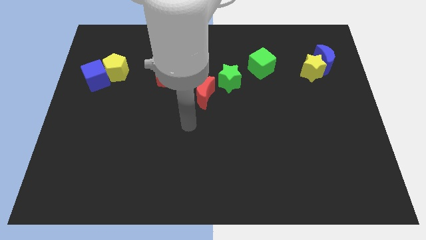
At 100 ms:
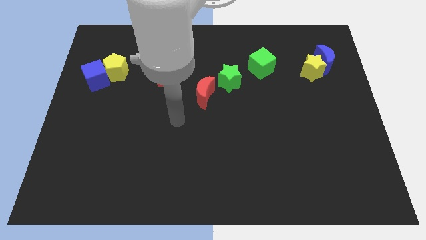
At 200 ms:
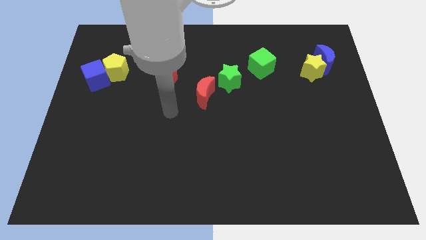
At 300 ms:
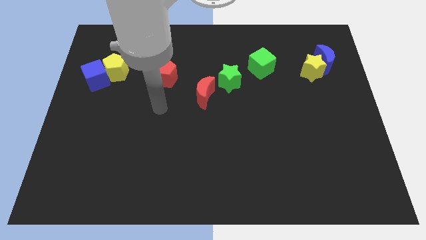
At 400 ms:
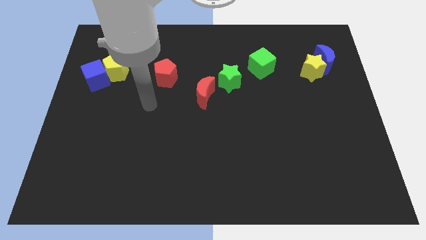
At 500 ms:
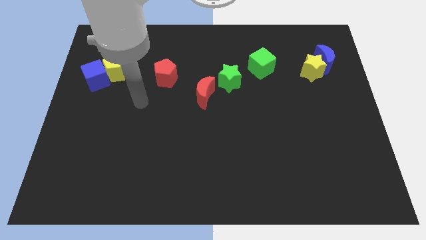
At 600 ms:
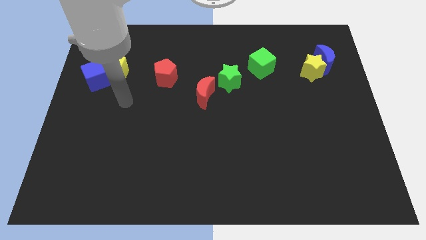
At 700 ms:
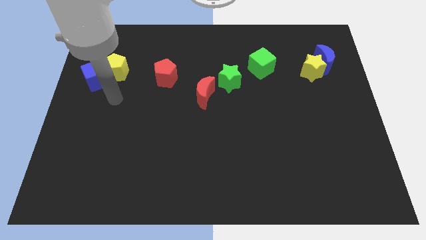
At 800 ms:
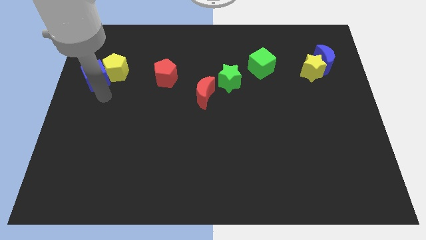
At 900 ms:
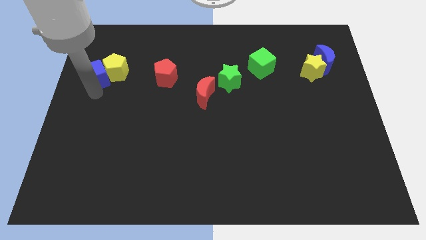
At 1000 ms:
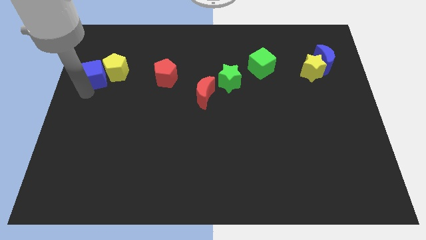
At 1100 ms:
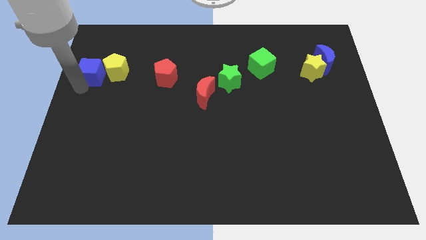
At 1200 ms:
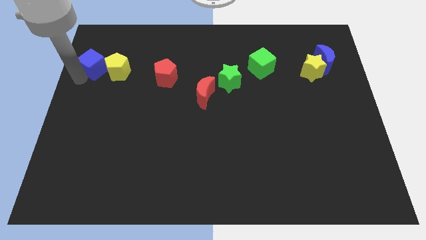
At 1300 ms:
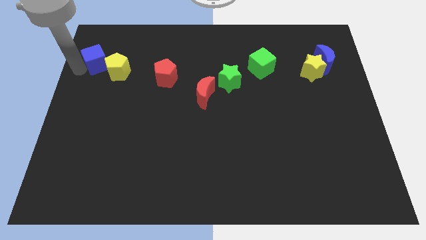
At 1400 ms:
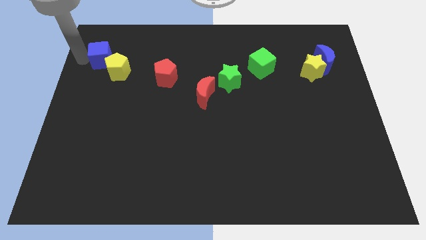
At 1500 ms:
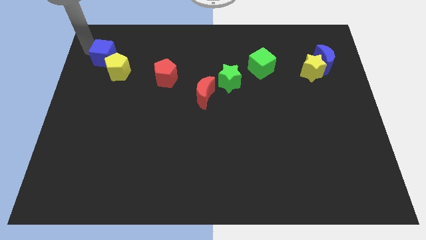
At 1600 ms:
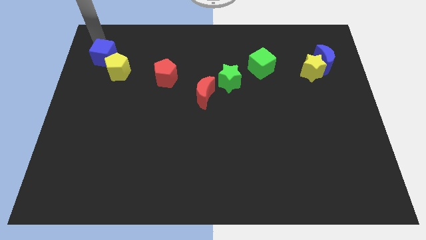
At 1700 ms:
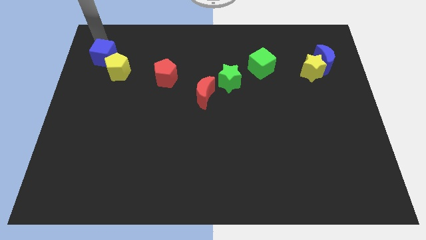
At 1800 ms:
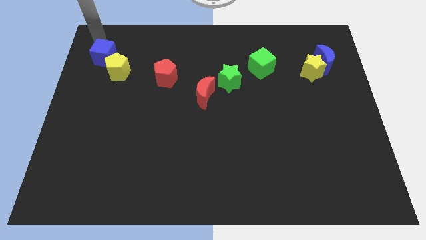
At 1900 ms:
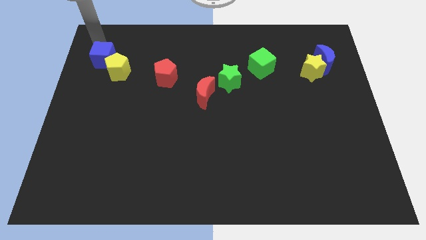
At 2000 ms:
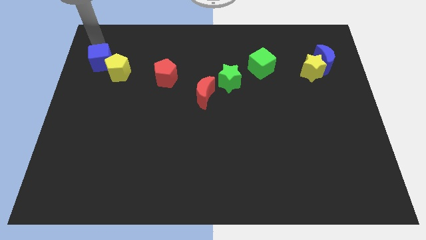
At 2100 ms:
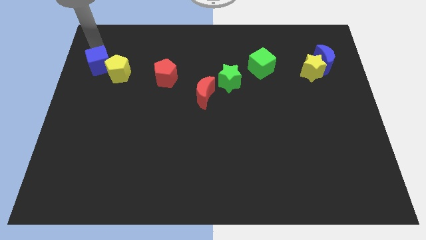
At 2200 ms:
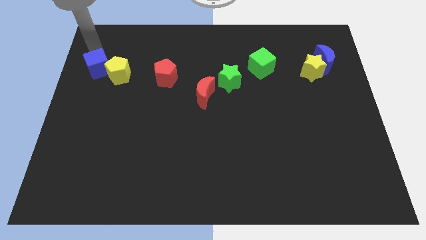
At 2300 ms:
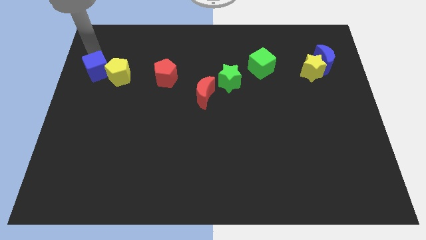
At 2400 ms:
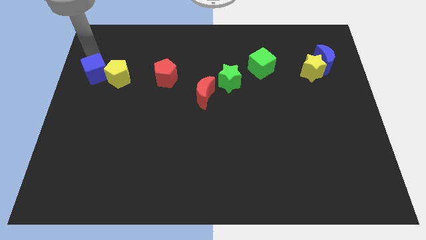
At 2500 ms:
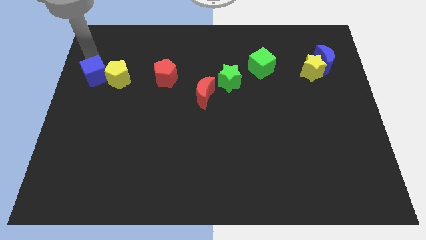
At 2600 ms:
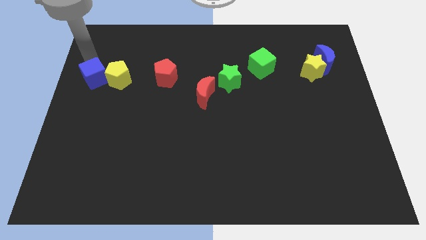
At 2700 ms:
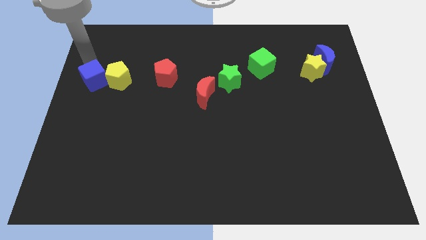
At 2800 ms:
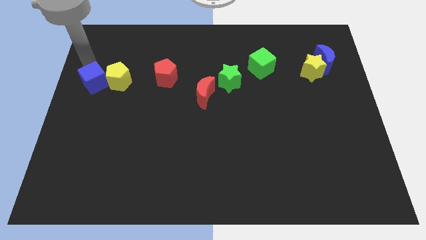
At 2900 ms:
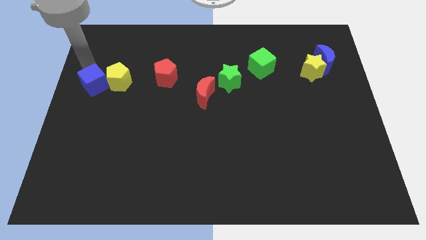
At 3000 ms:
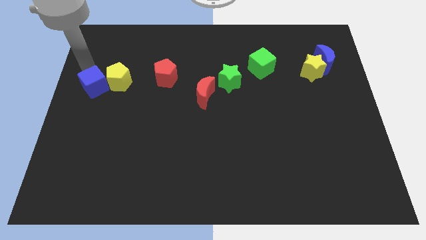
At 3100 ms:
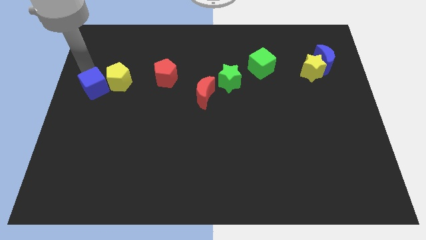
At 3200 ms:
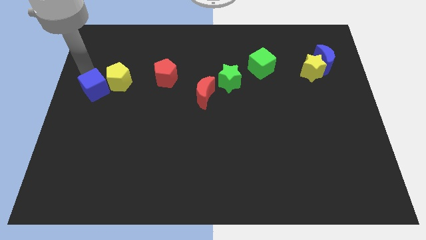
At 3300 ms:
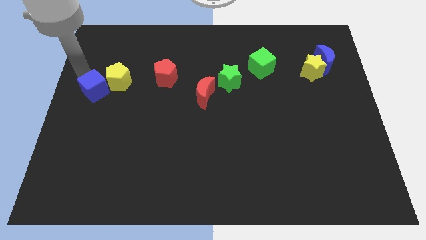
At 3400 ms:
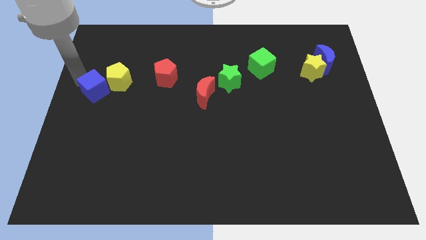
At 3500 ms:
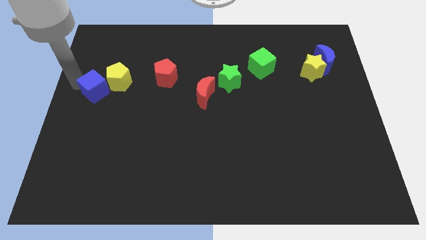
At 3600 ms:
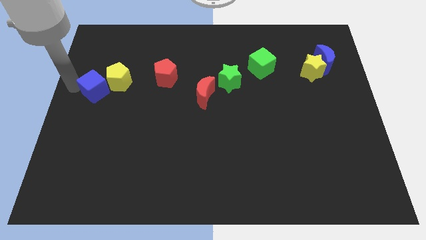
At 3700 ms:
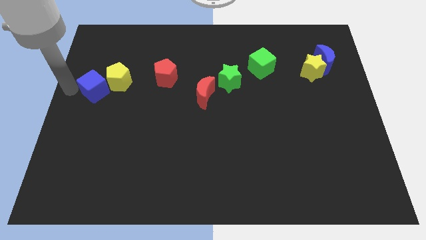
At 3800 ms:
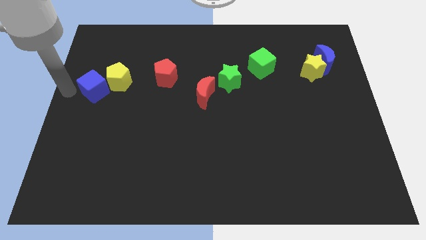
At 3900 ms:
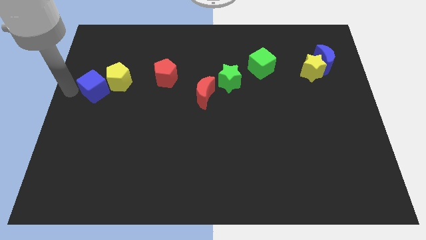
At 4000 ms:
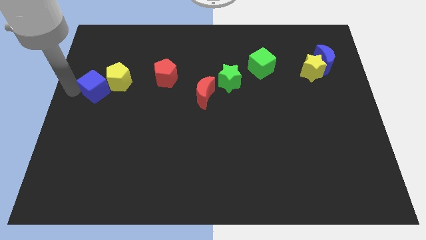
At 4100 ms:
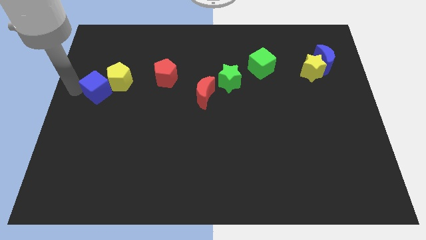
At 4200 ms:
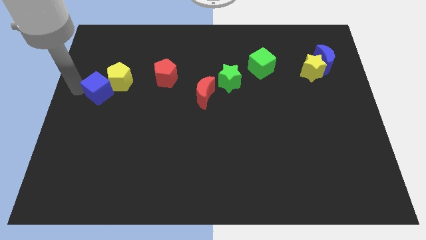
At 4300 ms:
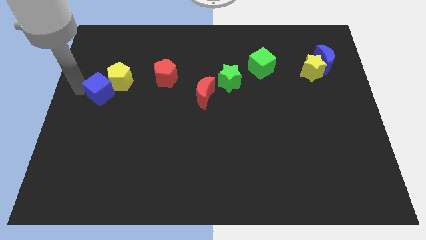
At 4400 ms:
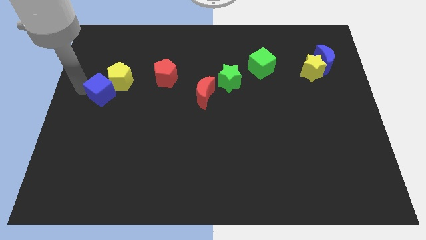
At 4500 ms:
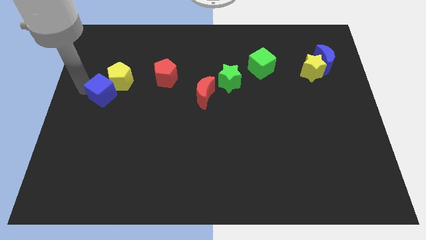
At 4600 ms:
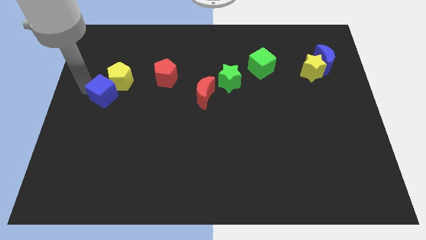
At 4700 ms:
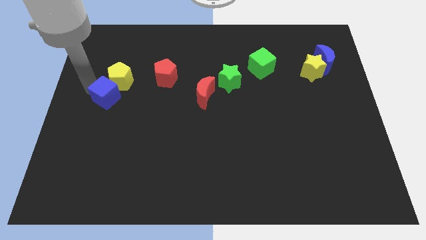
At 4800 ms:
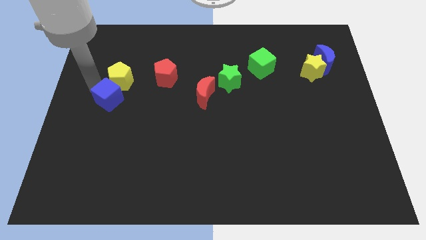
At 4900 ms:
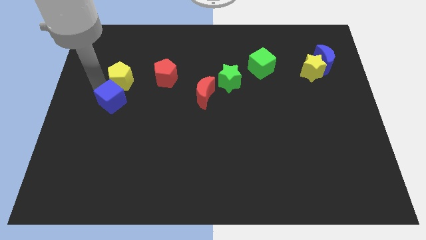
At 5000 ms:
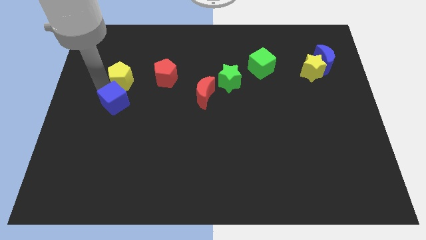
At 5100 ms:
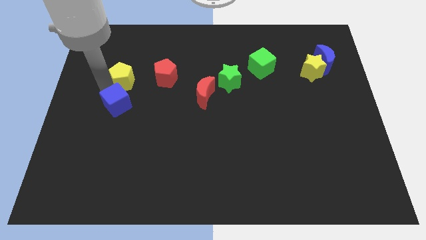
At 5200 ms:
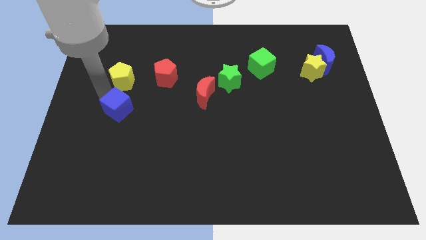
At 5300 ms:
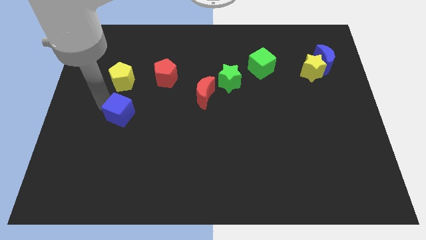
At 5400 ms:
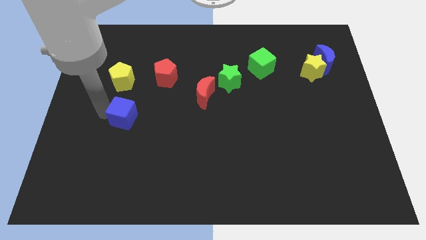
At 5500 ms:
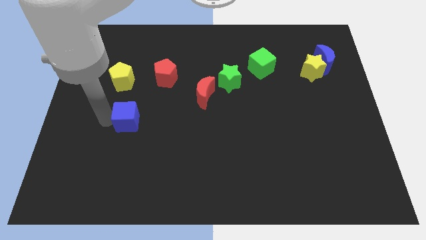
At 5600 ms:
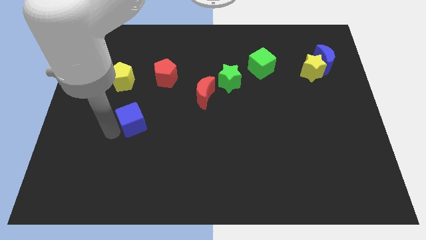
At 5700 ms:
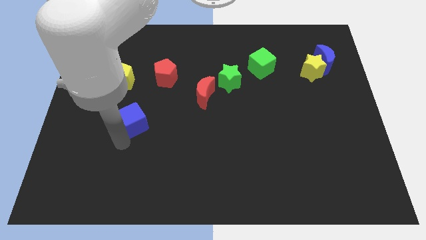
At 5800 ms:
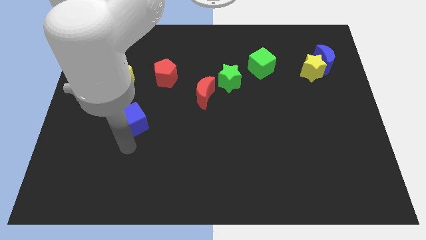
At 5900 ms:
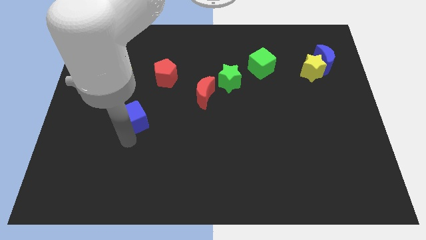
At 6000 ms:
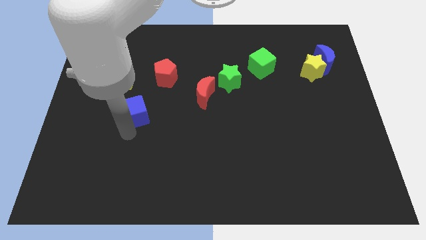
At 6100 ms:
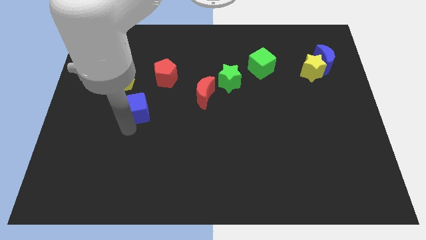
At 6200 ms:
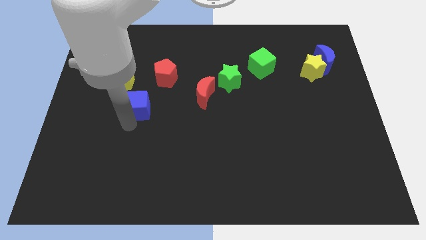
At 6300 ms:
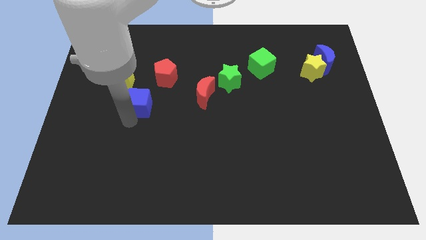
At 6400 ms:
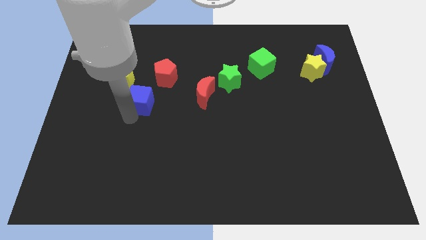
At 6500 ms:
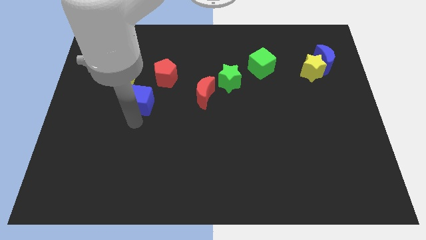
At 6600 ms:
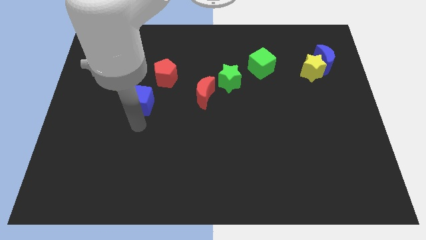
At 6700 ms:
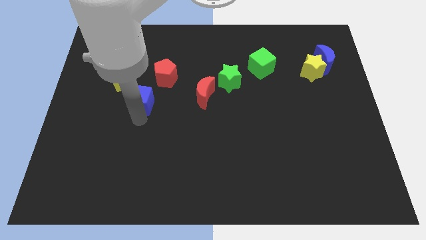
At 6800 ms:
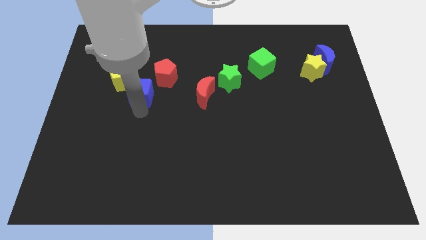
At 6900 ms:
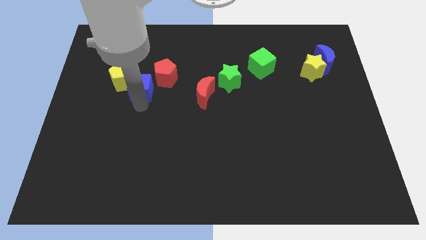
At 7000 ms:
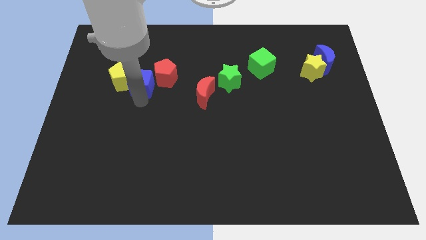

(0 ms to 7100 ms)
move the blue cube close to the red pentagon
